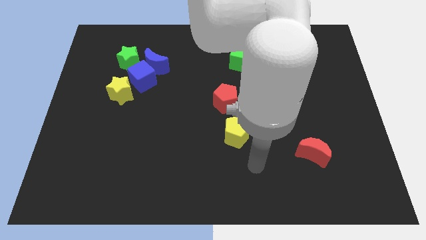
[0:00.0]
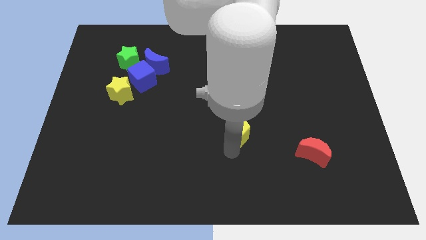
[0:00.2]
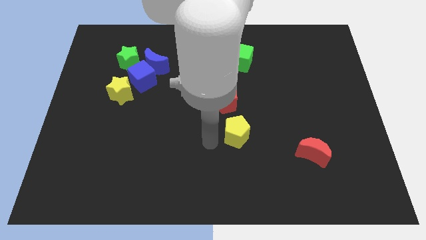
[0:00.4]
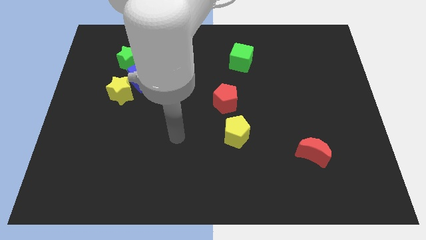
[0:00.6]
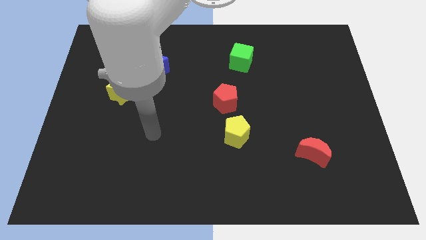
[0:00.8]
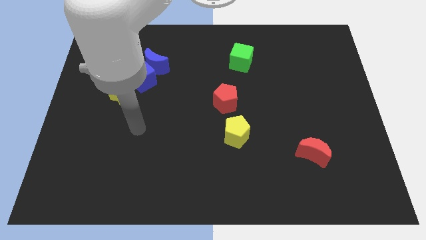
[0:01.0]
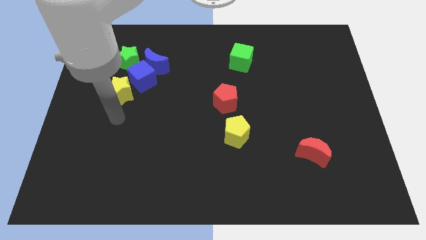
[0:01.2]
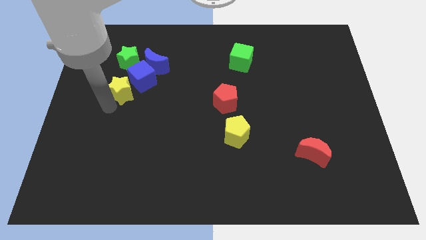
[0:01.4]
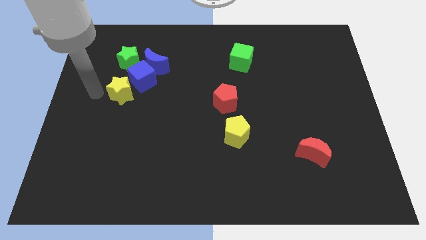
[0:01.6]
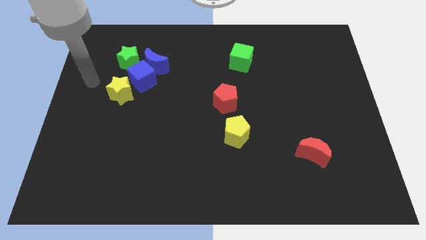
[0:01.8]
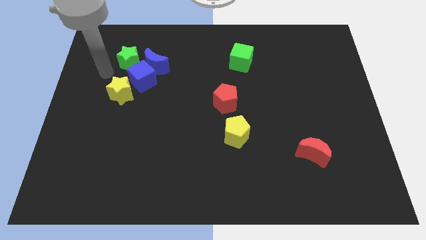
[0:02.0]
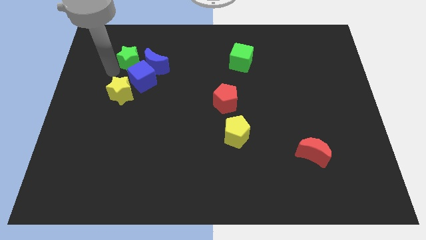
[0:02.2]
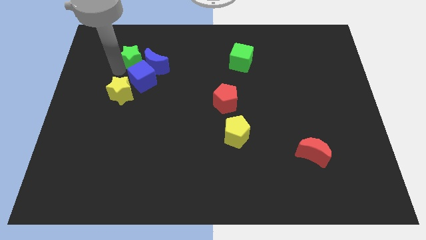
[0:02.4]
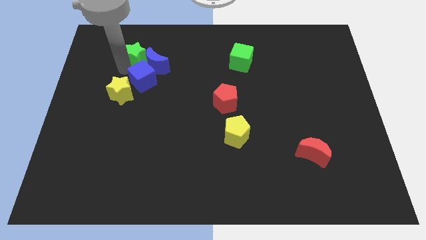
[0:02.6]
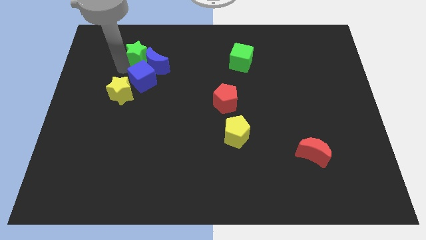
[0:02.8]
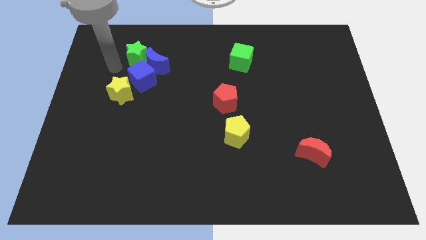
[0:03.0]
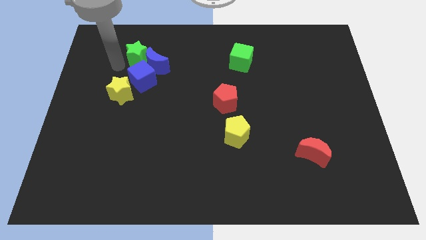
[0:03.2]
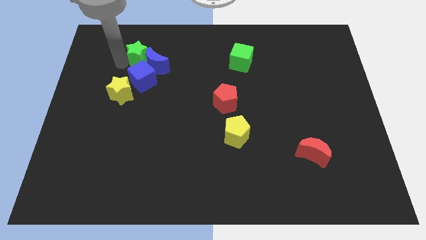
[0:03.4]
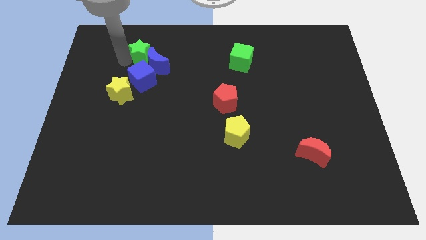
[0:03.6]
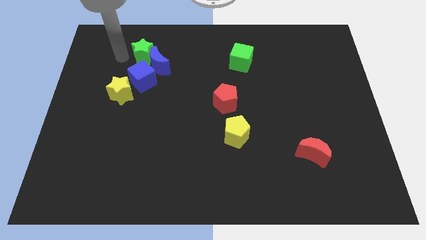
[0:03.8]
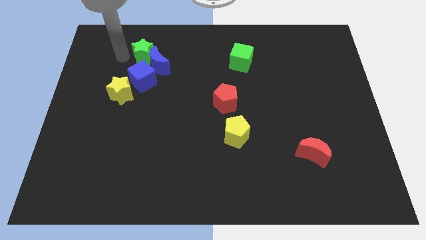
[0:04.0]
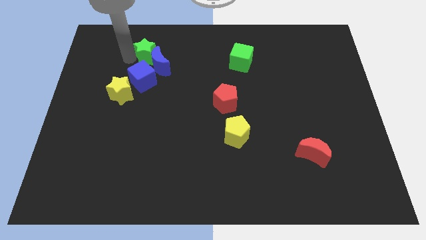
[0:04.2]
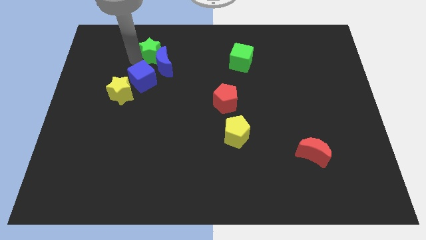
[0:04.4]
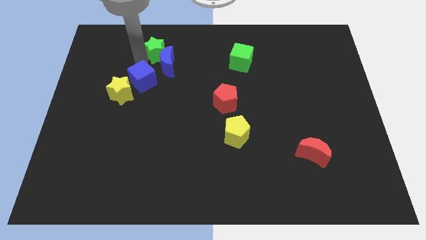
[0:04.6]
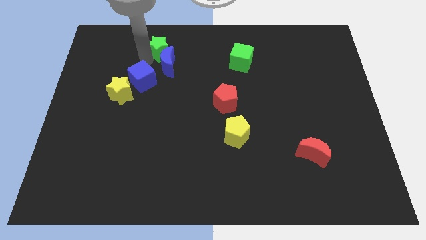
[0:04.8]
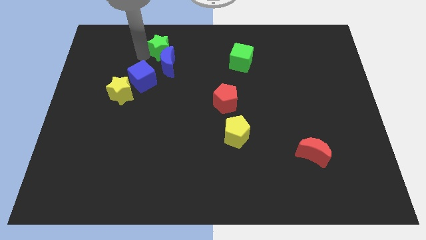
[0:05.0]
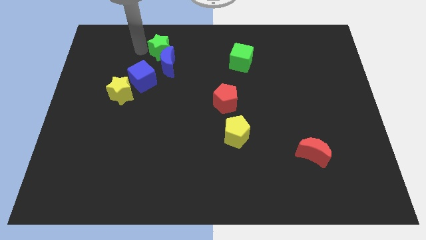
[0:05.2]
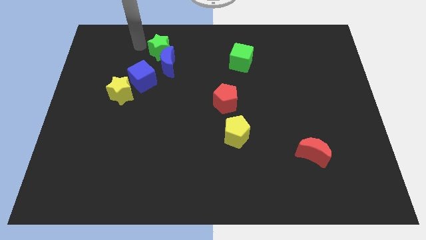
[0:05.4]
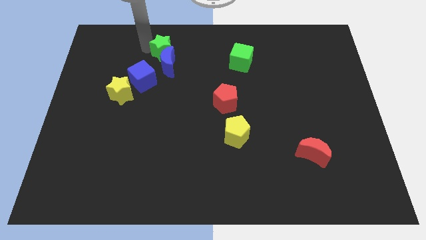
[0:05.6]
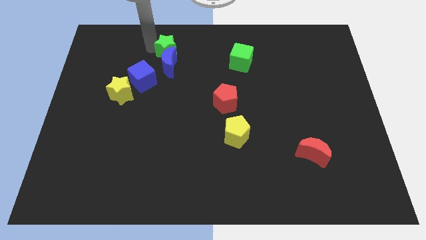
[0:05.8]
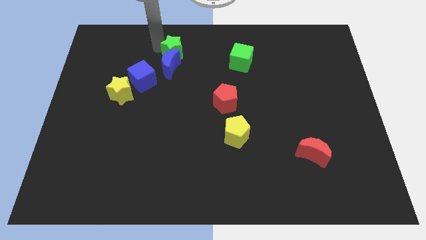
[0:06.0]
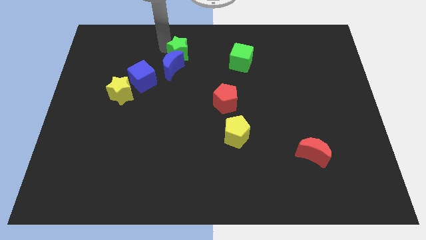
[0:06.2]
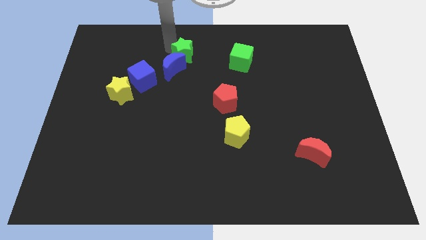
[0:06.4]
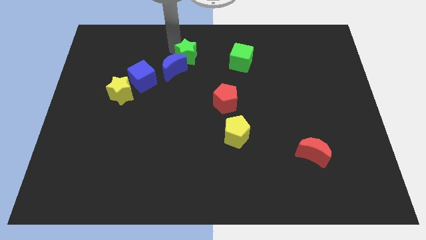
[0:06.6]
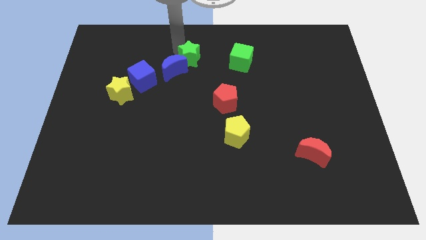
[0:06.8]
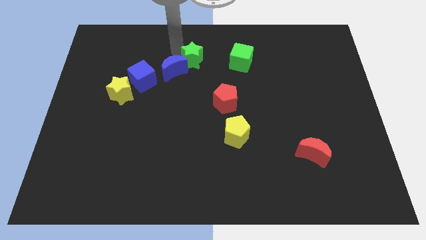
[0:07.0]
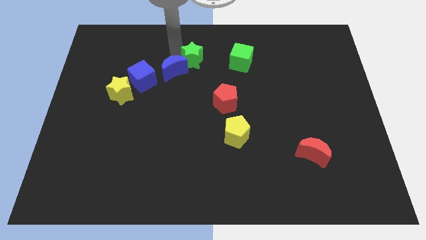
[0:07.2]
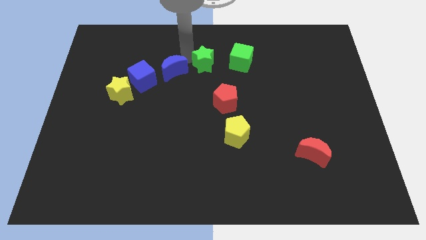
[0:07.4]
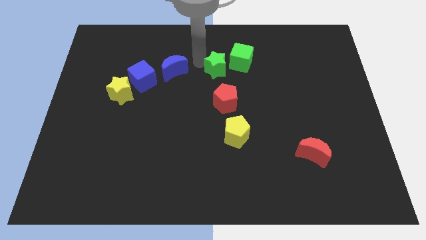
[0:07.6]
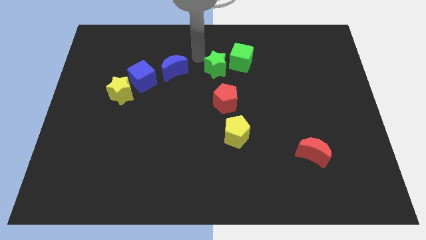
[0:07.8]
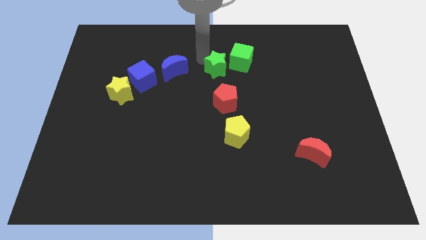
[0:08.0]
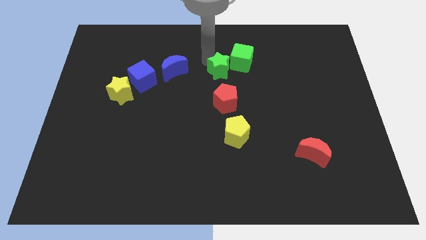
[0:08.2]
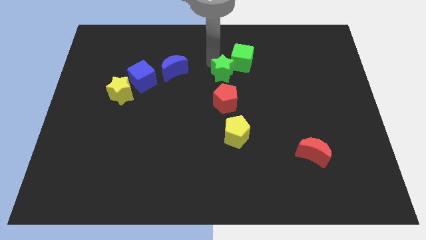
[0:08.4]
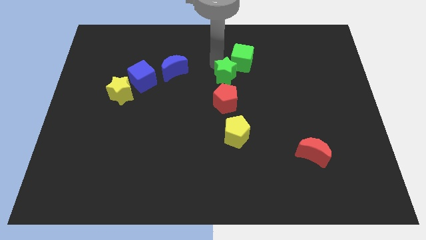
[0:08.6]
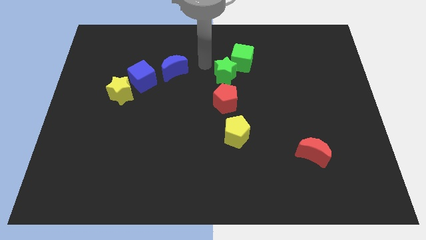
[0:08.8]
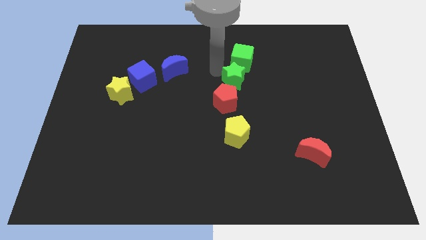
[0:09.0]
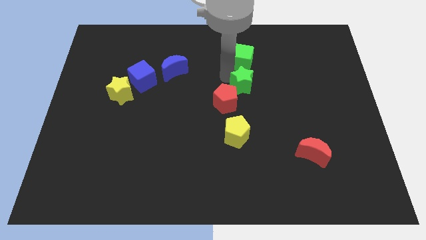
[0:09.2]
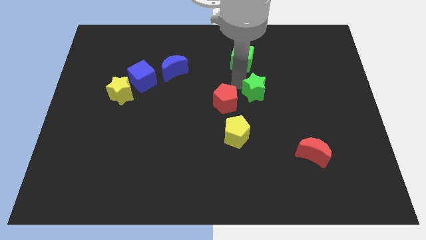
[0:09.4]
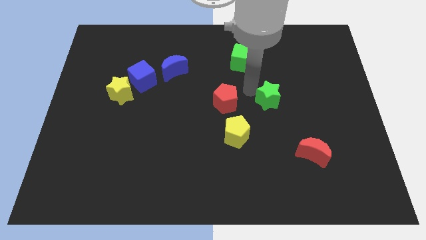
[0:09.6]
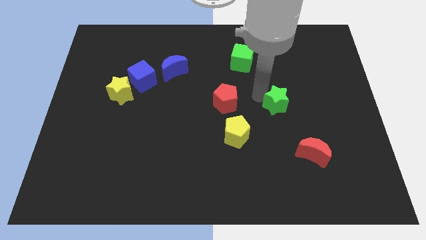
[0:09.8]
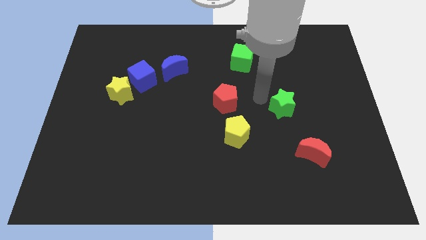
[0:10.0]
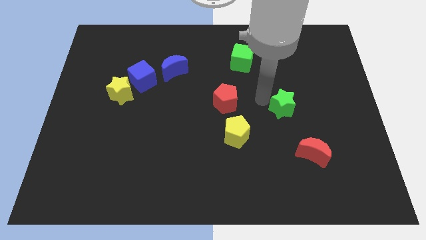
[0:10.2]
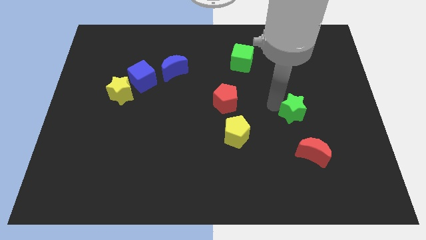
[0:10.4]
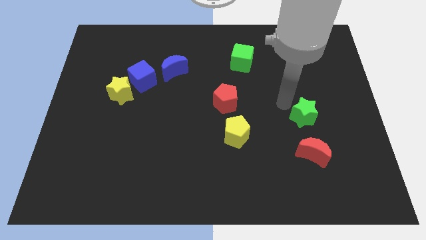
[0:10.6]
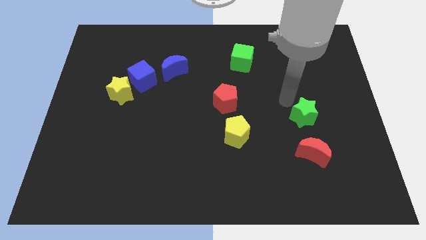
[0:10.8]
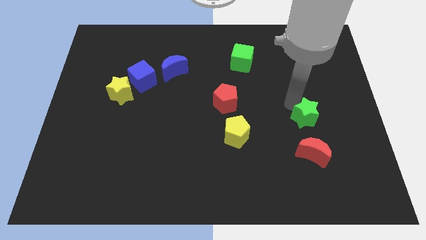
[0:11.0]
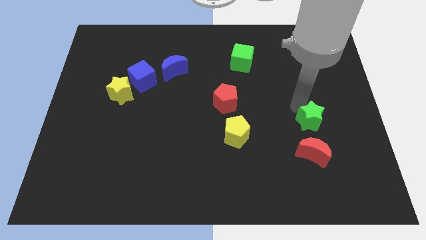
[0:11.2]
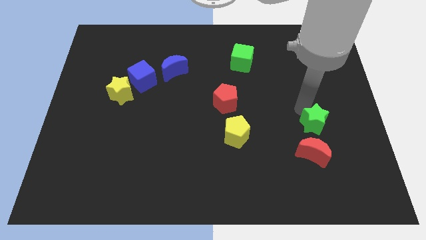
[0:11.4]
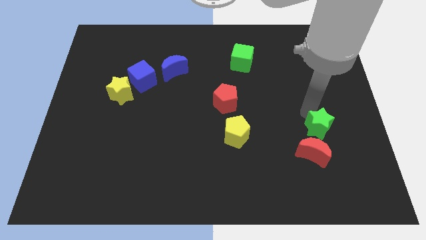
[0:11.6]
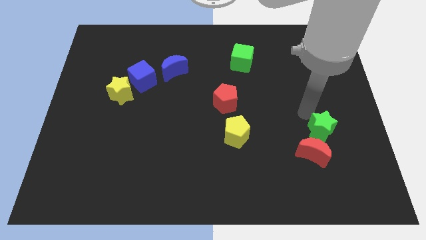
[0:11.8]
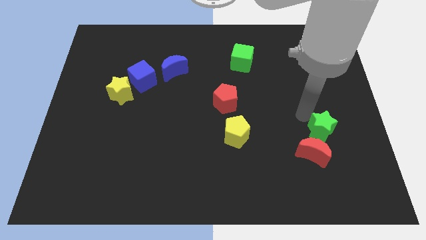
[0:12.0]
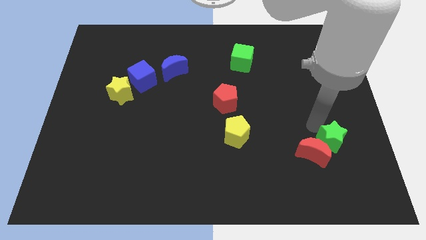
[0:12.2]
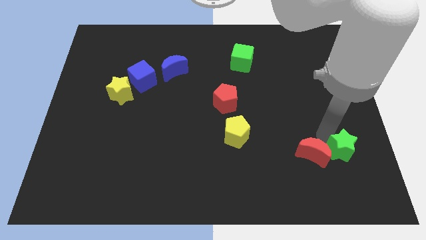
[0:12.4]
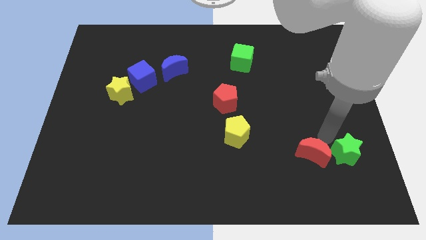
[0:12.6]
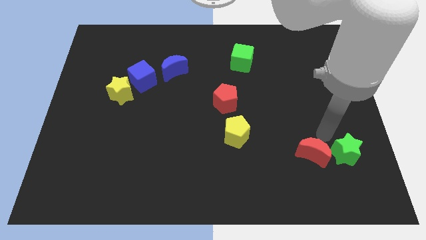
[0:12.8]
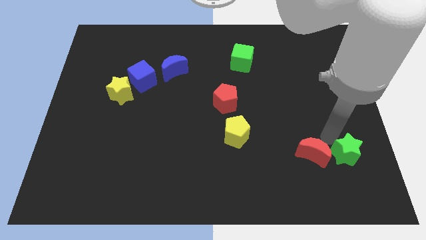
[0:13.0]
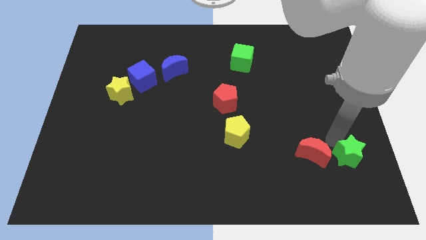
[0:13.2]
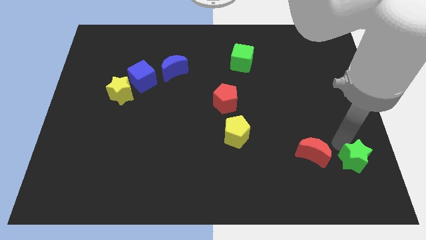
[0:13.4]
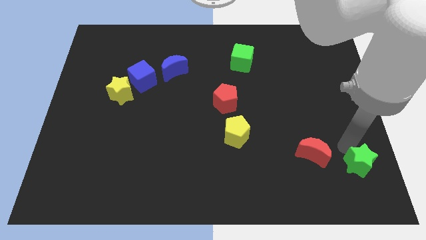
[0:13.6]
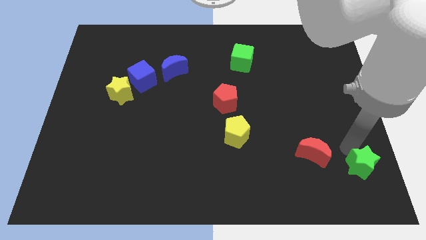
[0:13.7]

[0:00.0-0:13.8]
slide the green star to the bottom right corner

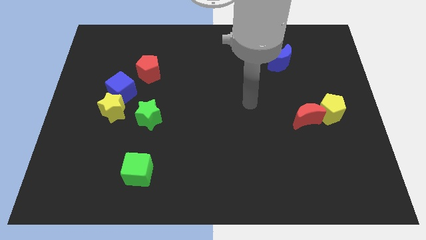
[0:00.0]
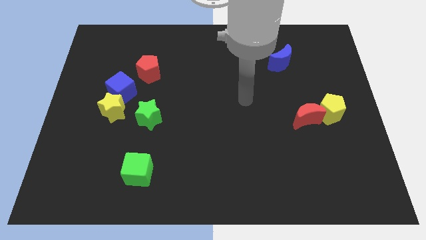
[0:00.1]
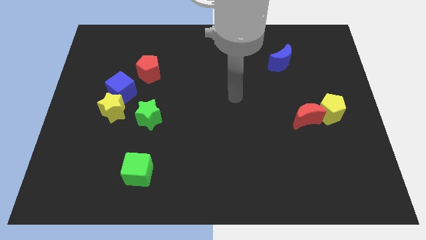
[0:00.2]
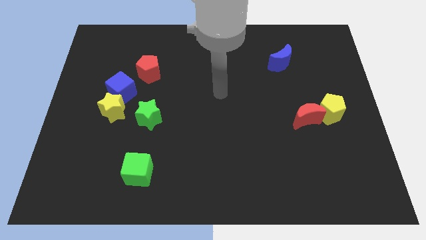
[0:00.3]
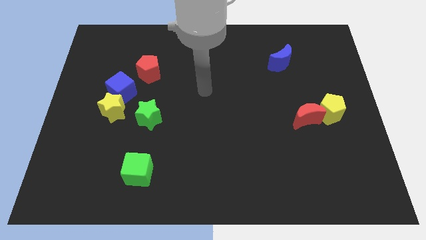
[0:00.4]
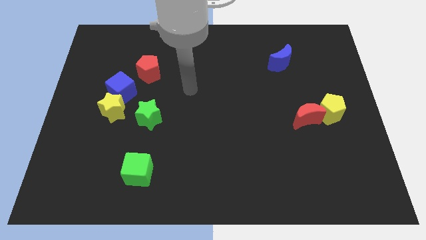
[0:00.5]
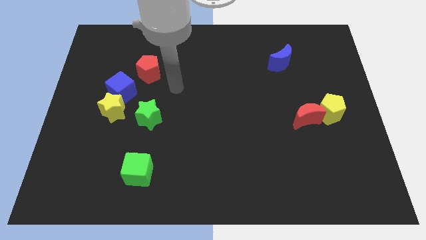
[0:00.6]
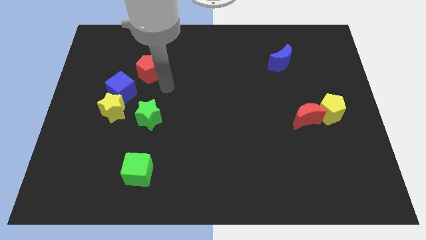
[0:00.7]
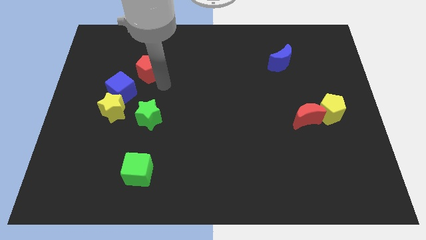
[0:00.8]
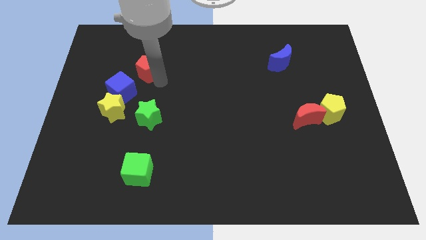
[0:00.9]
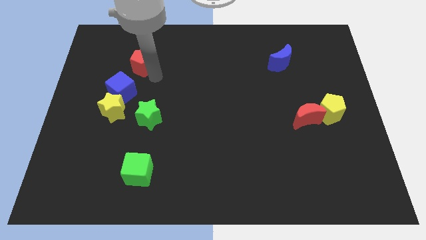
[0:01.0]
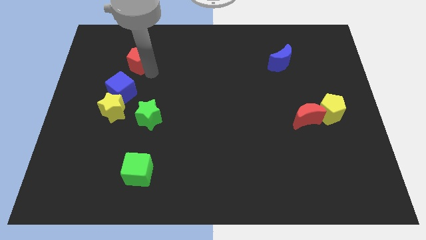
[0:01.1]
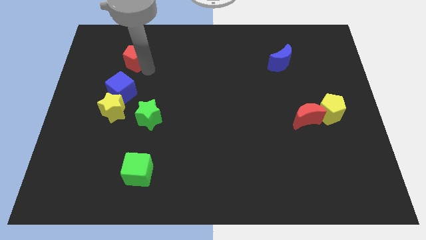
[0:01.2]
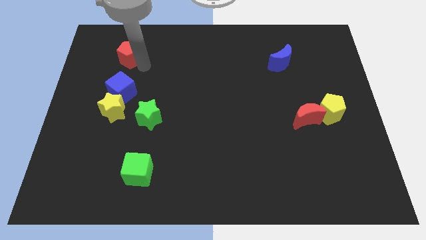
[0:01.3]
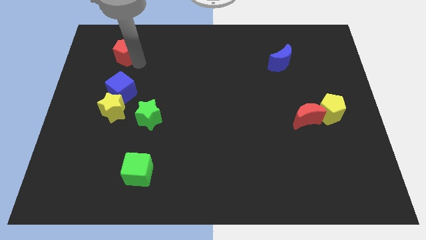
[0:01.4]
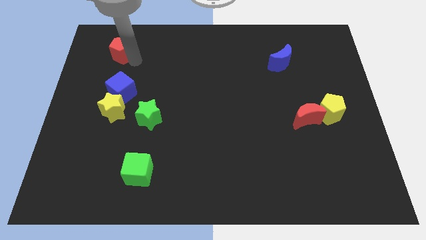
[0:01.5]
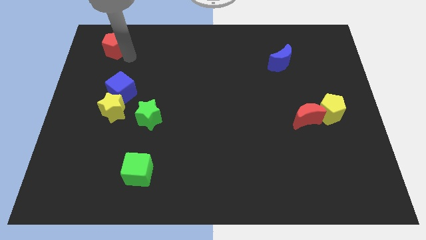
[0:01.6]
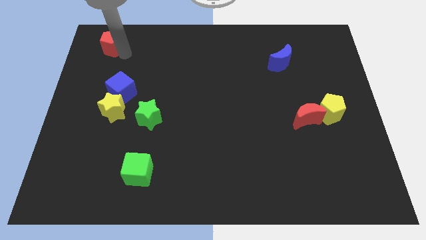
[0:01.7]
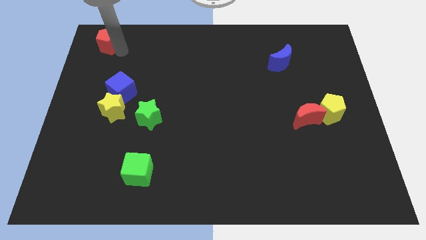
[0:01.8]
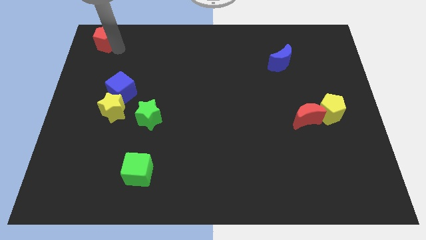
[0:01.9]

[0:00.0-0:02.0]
slide the red pentagon to the top left of the board
